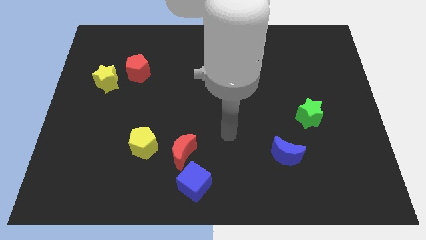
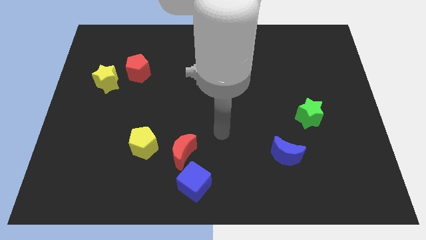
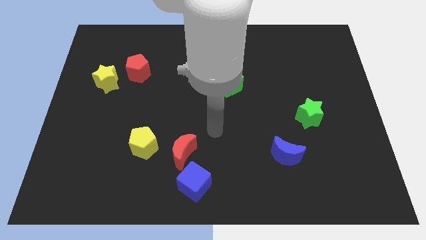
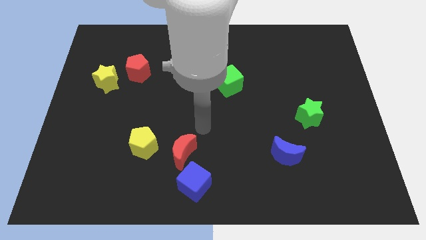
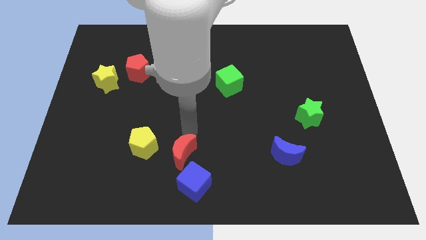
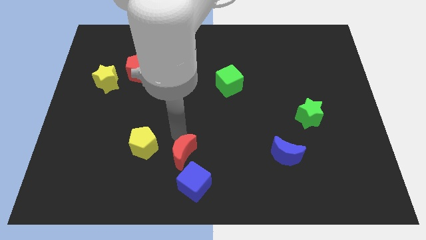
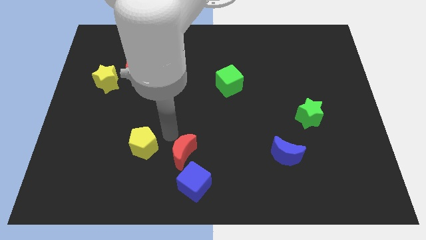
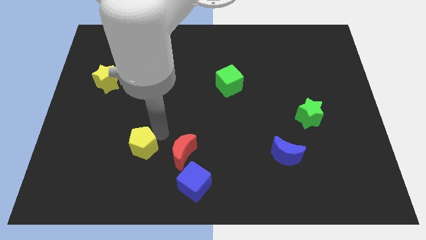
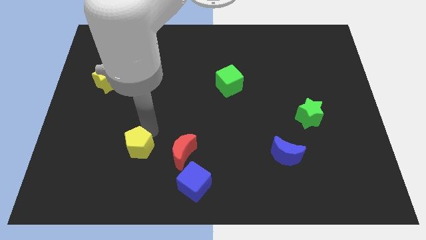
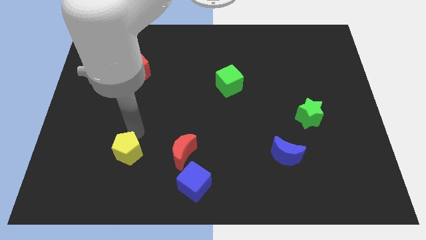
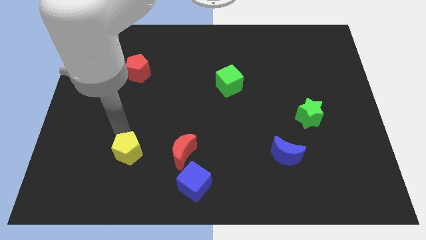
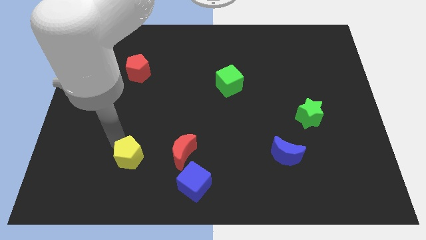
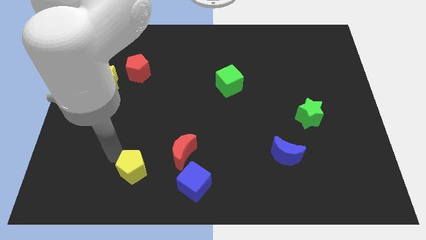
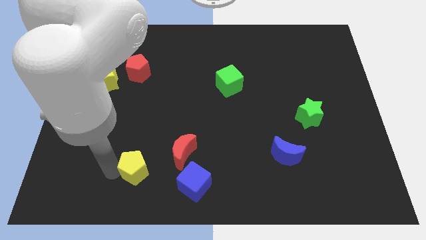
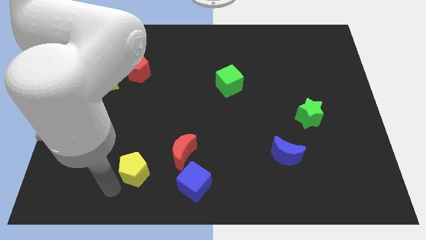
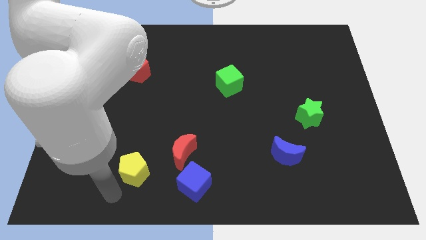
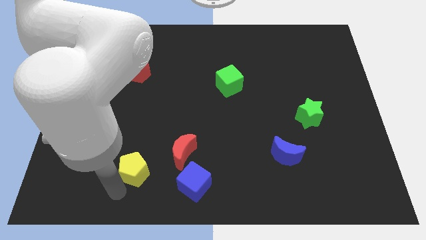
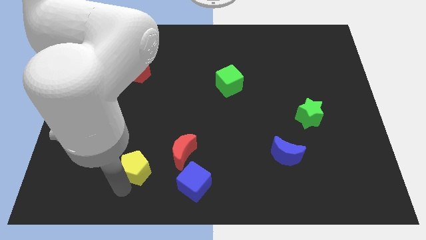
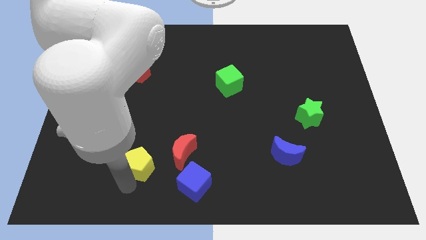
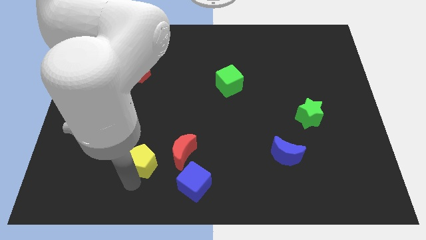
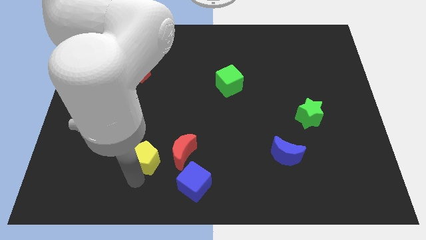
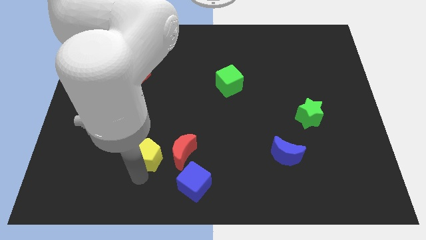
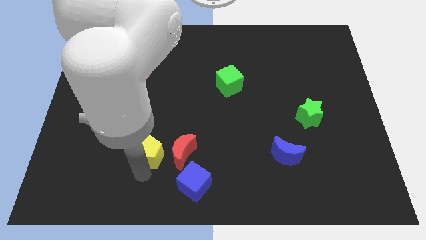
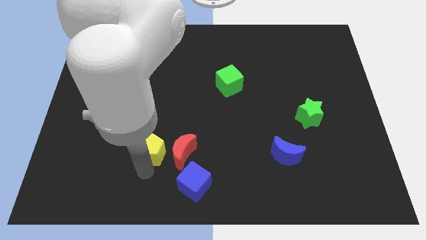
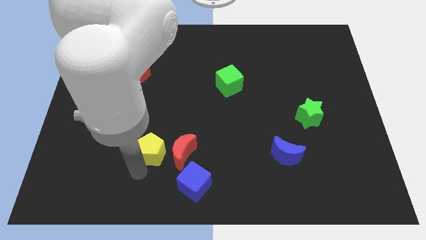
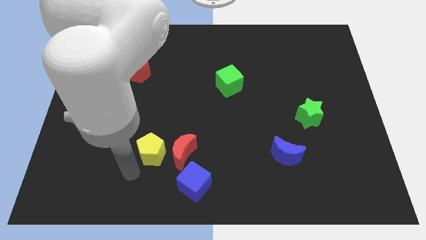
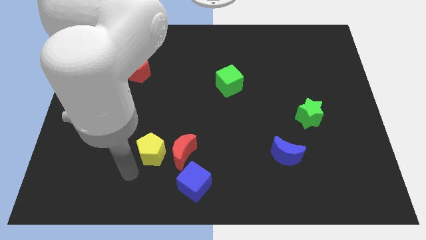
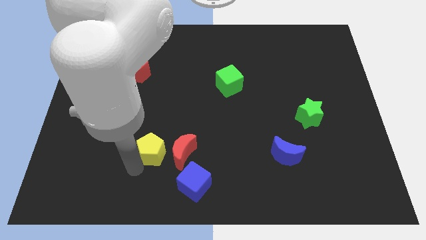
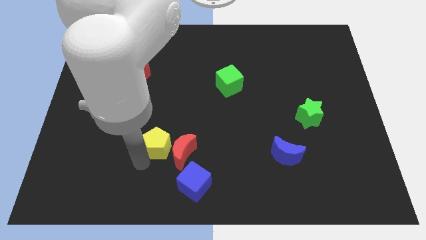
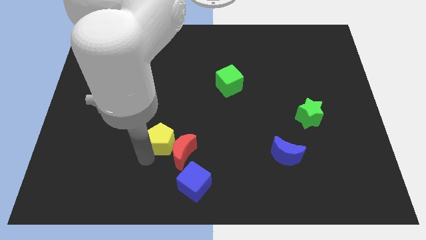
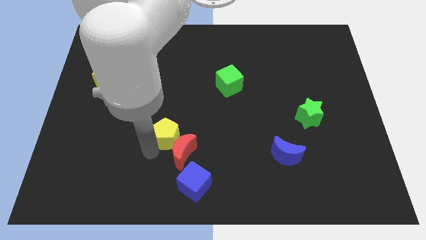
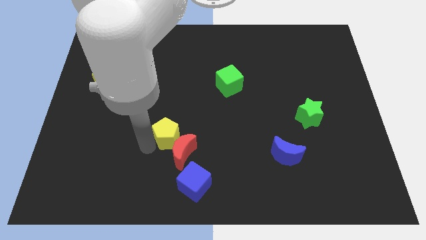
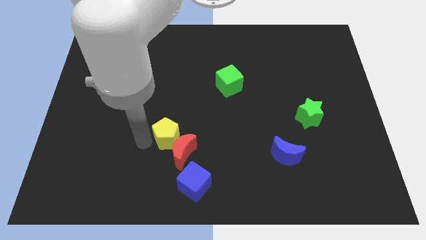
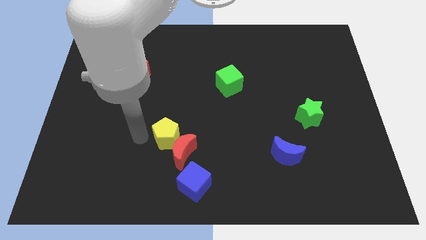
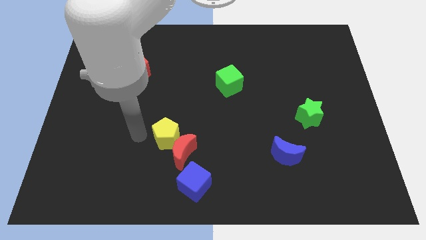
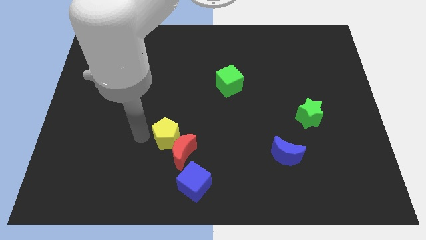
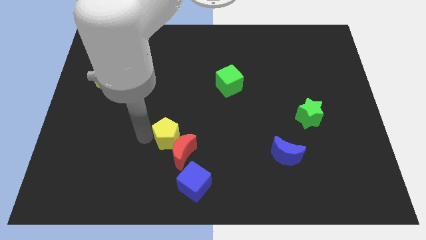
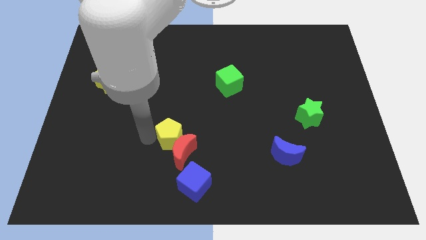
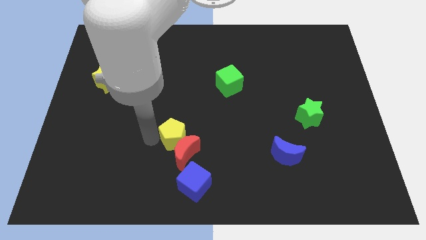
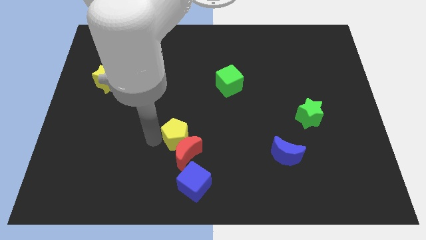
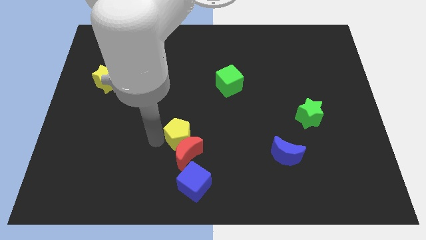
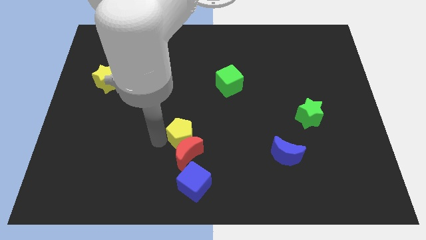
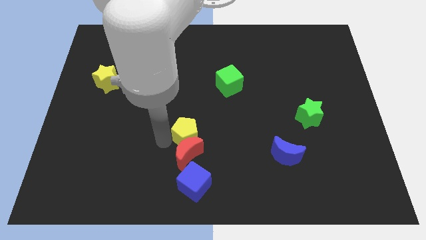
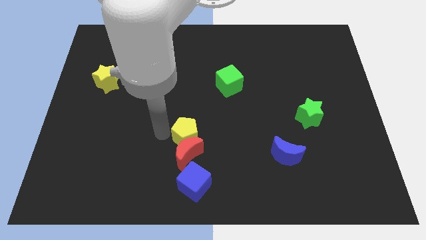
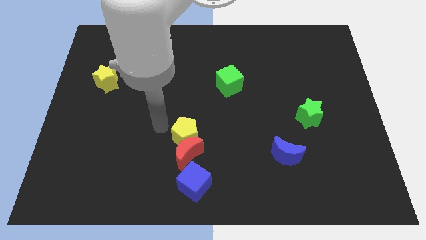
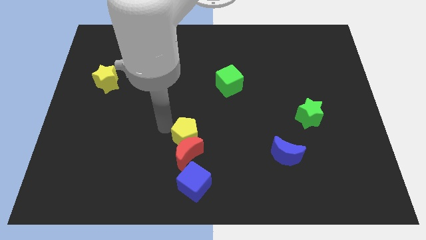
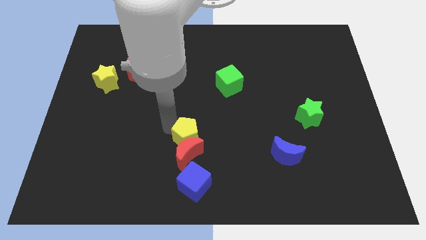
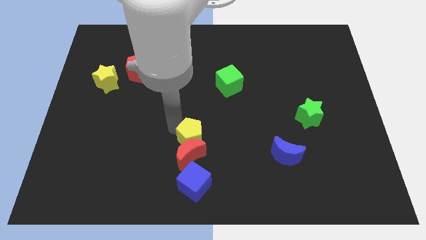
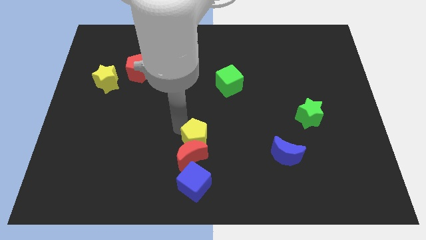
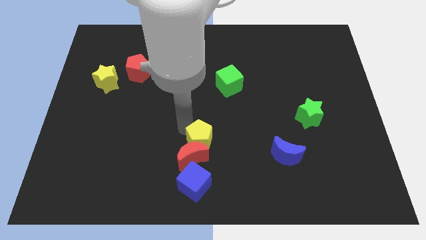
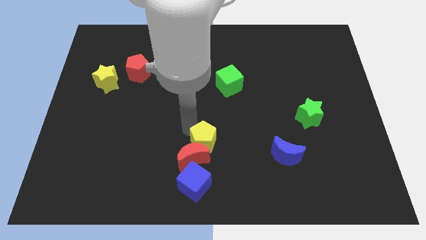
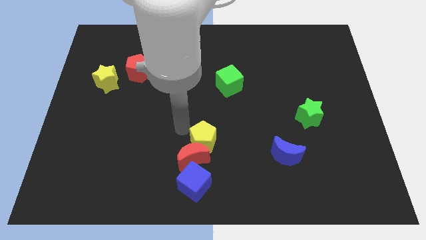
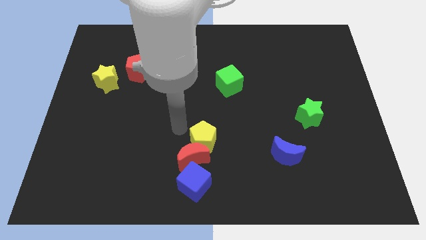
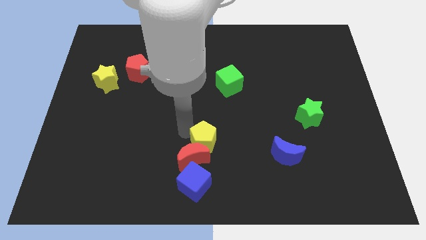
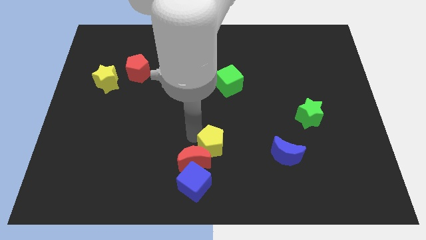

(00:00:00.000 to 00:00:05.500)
move the yellow pentagon to the right of the red moon

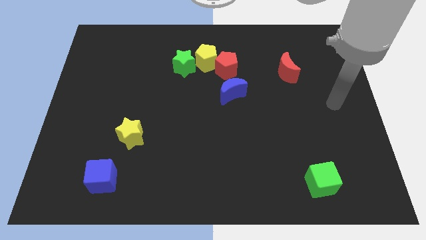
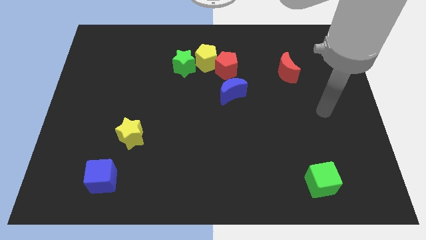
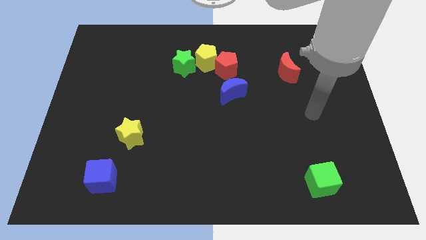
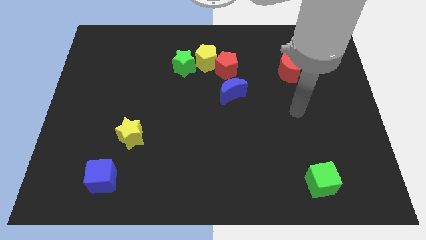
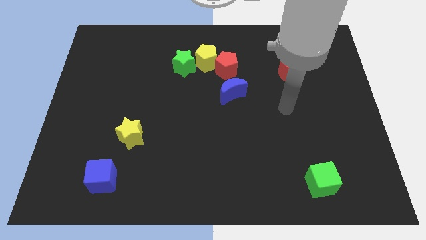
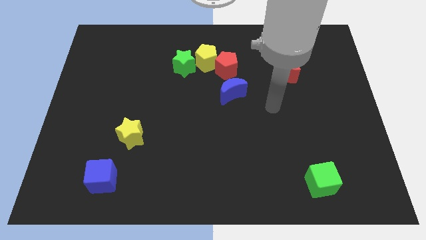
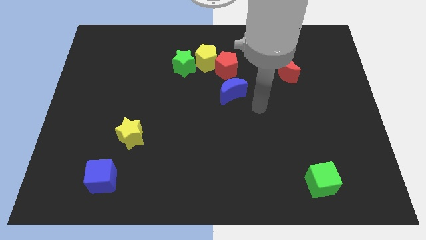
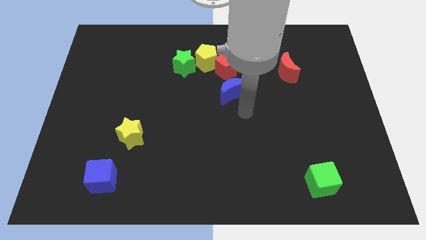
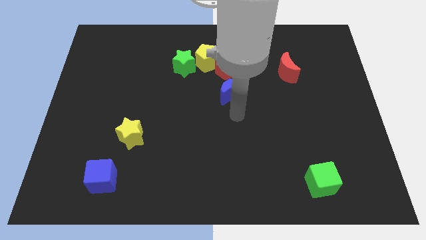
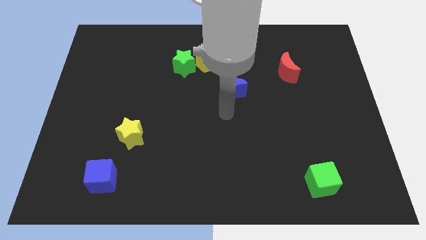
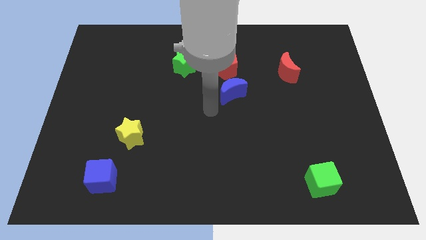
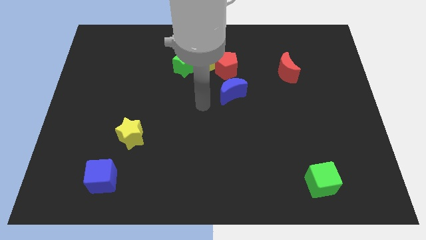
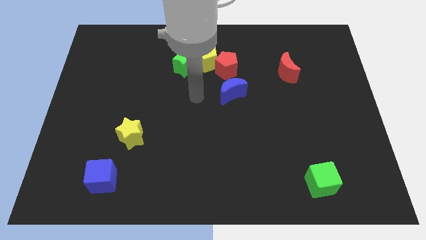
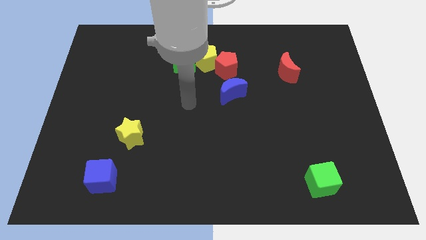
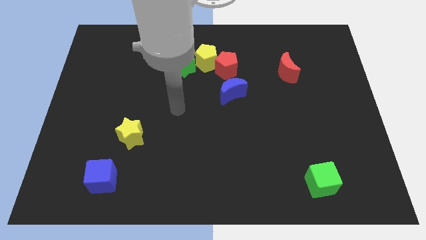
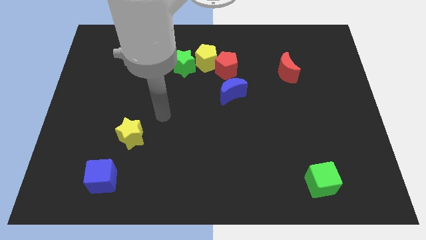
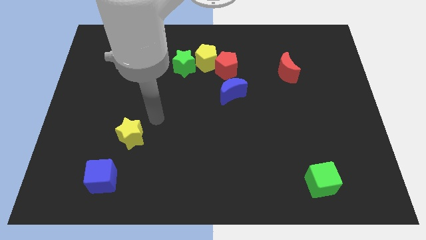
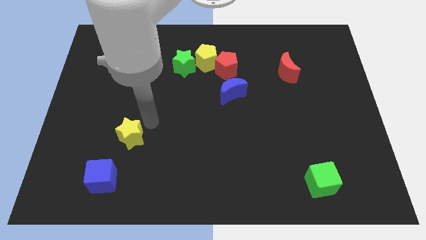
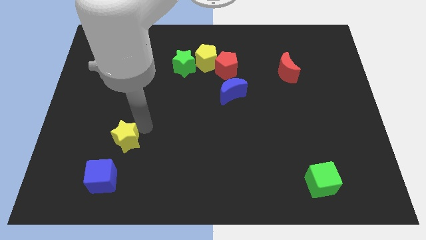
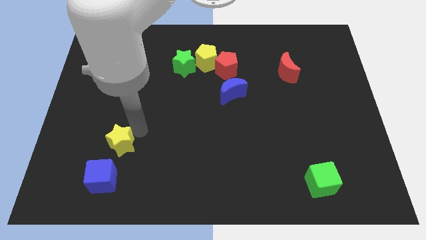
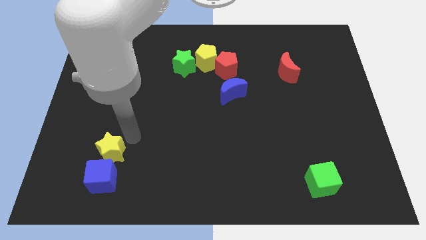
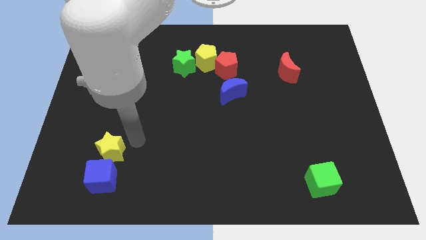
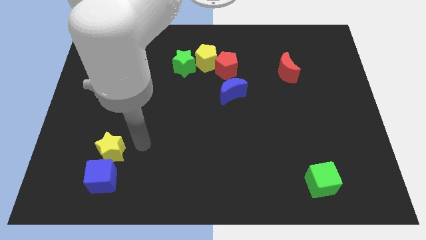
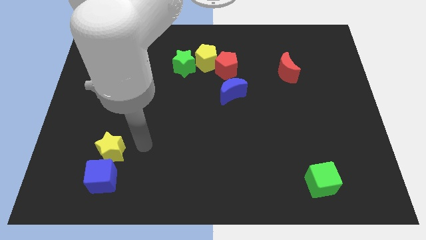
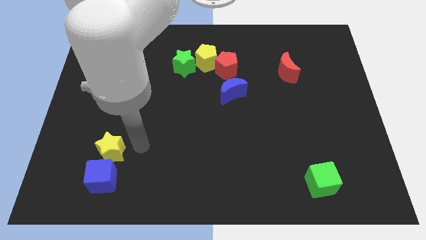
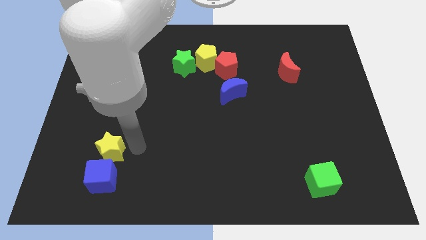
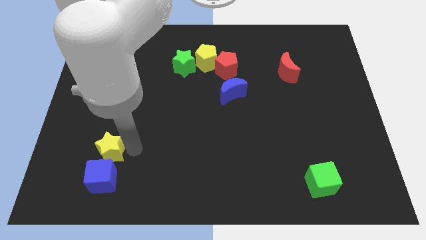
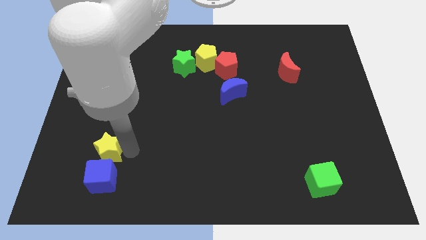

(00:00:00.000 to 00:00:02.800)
push the yellow star to the top left of the blue cube
